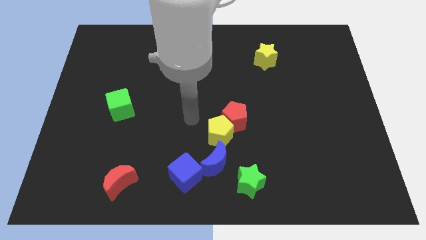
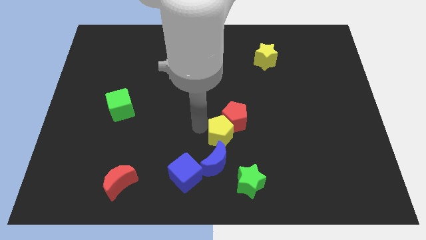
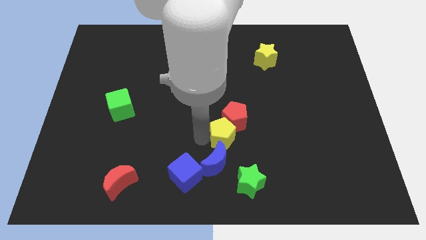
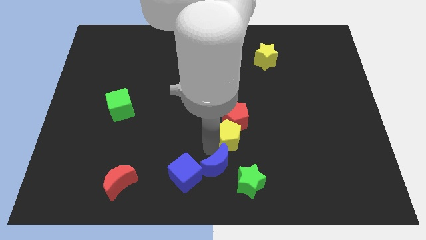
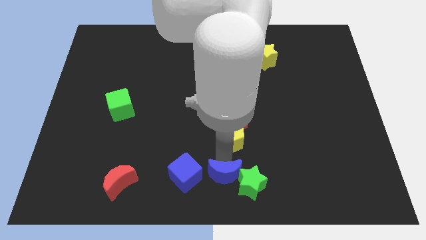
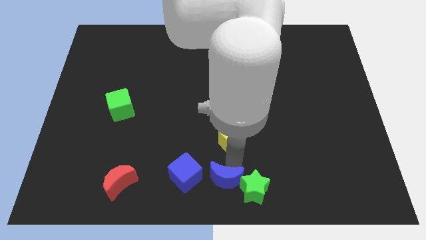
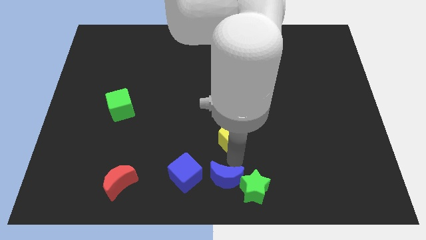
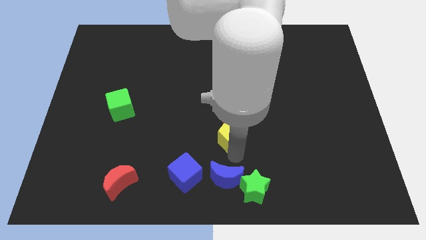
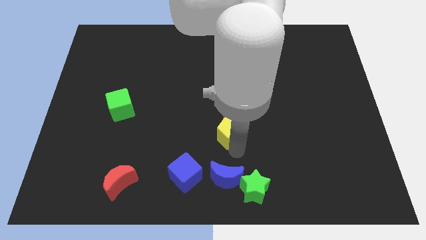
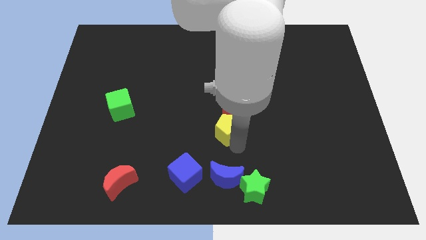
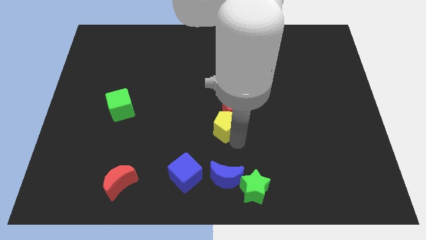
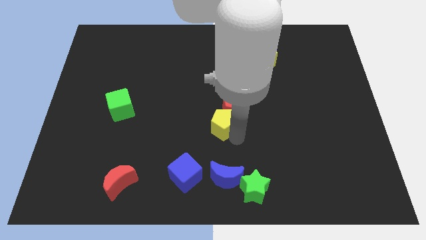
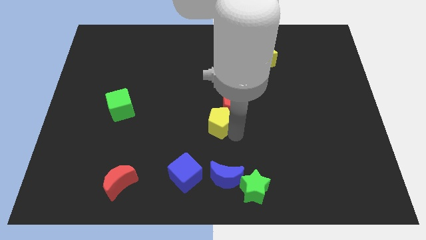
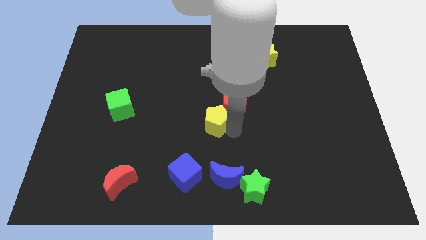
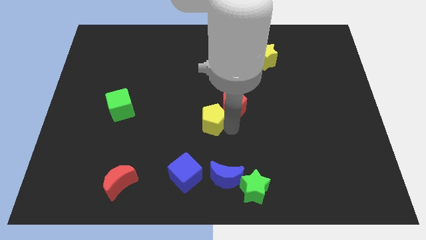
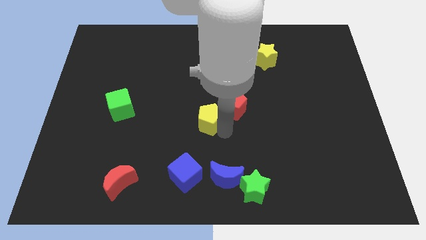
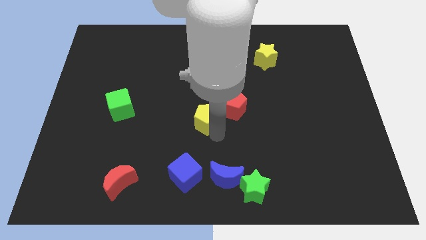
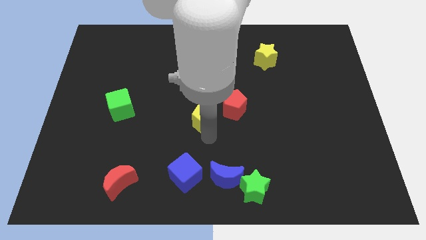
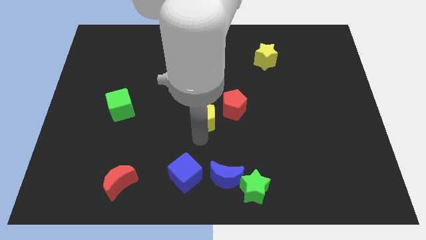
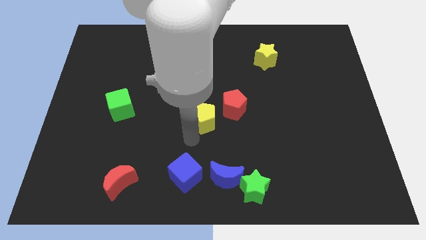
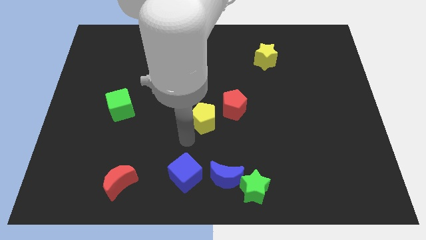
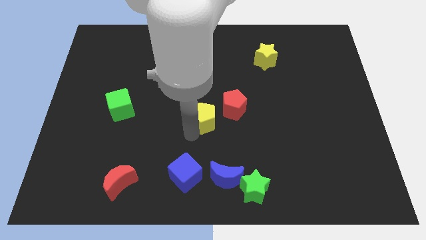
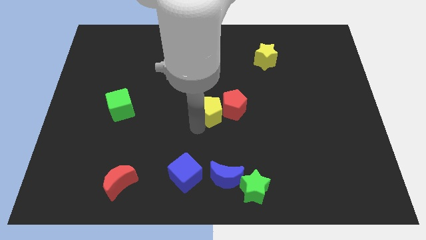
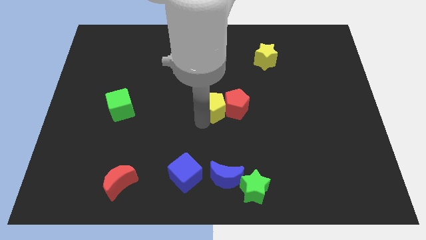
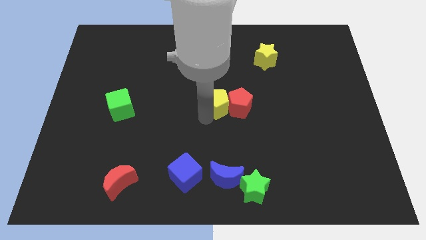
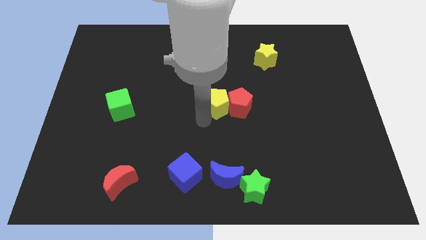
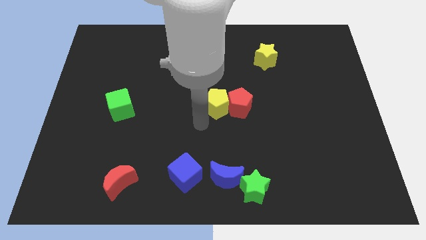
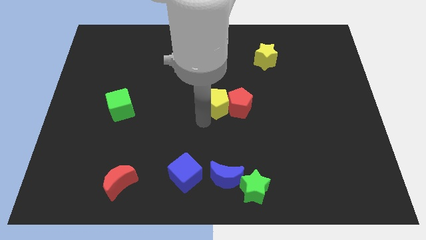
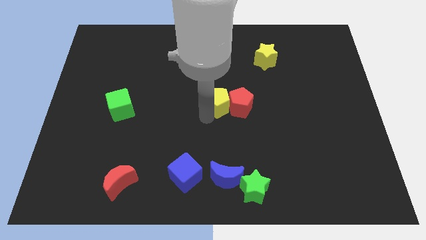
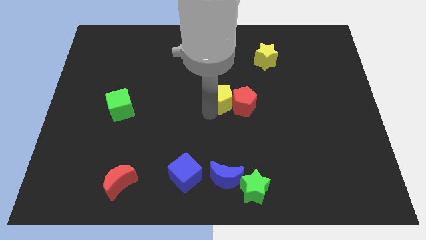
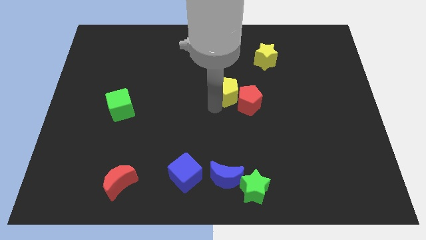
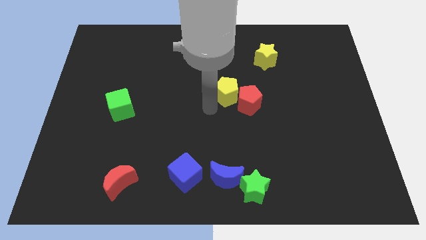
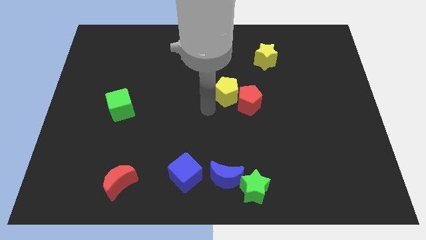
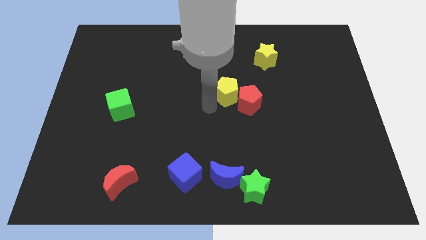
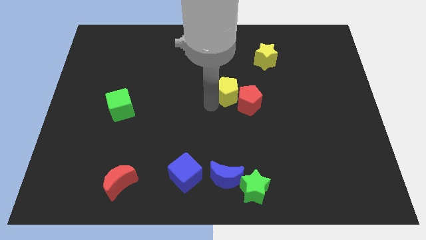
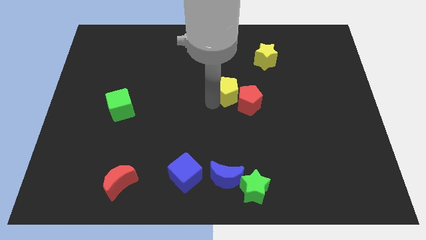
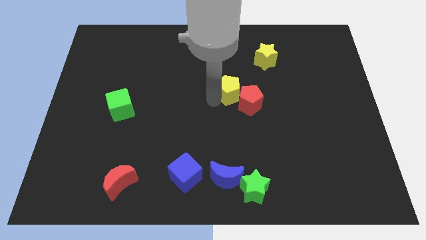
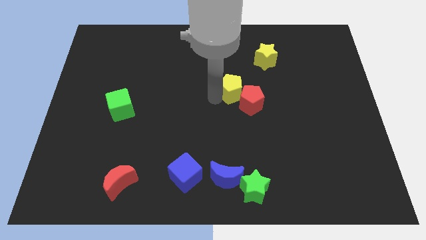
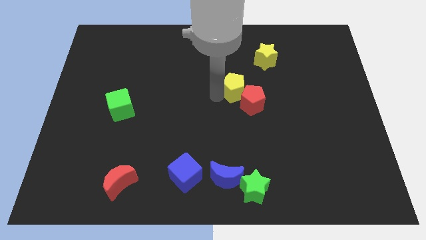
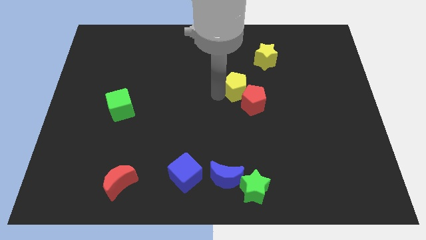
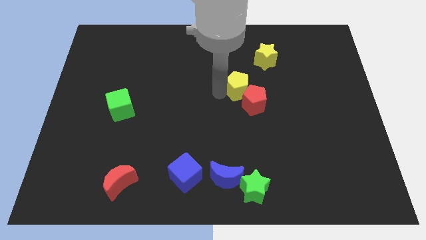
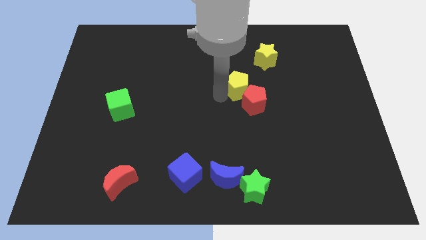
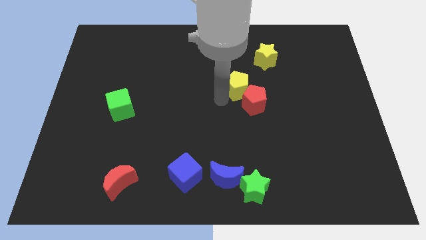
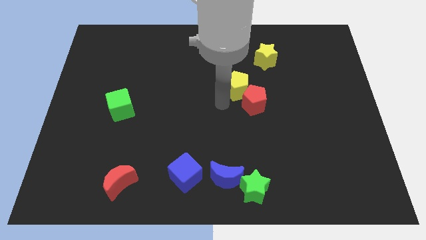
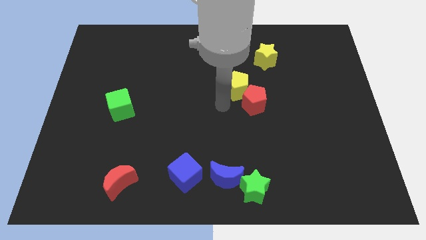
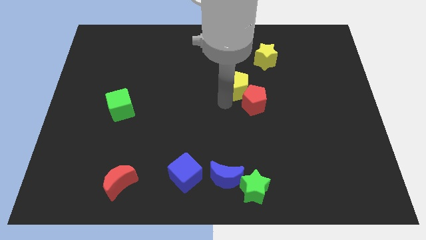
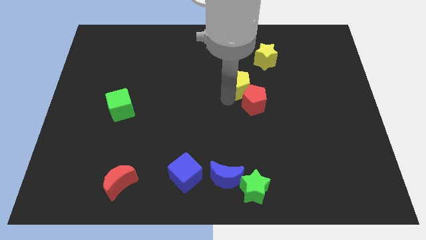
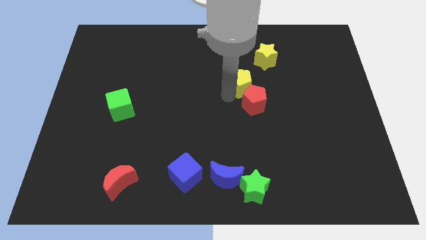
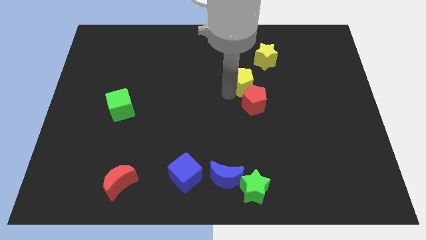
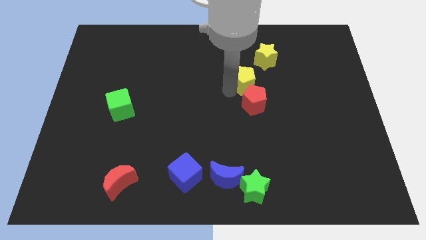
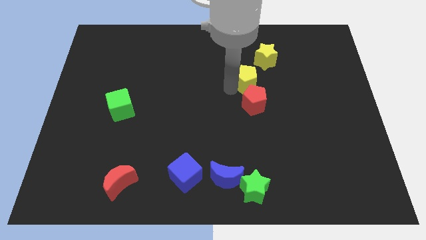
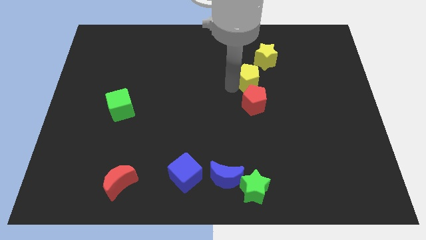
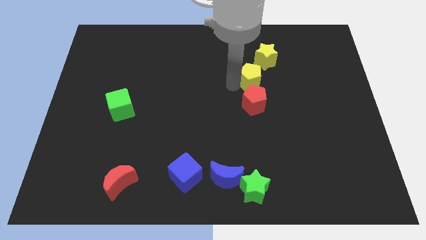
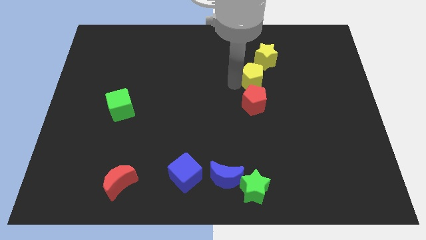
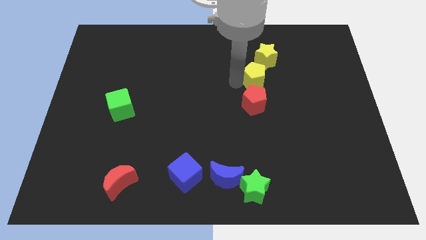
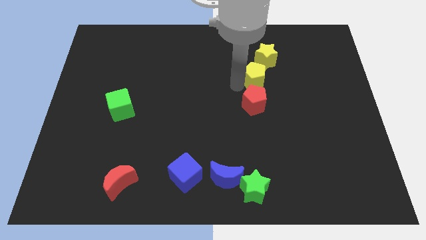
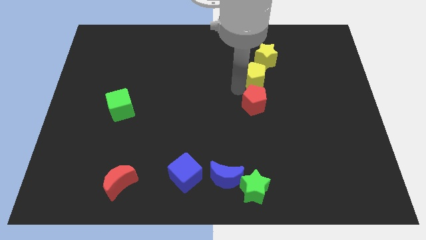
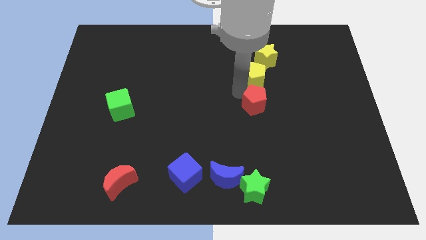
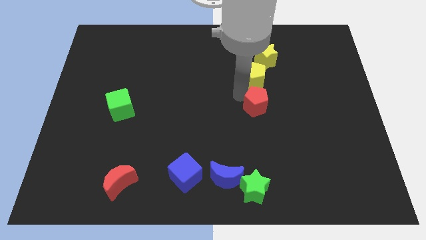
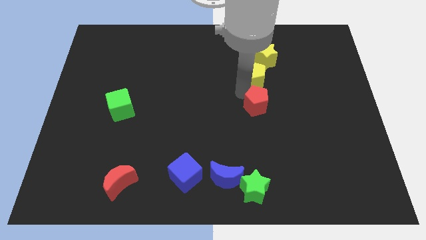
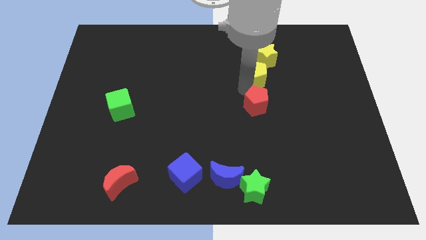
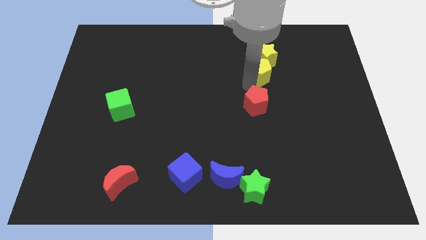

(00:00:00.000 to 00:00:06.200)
push the yellow pentagon to the yellow star
